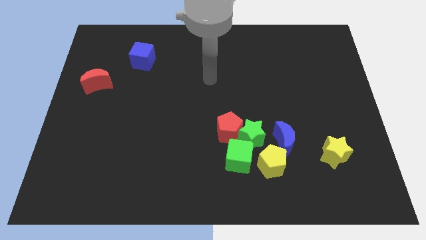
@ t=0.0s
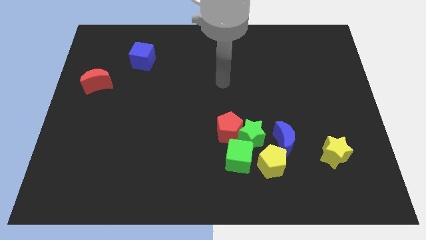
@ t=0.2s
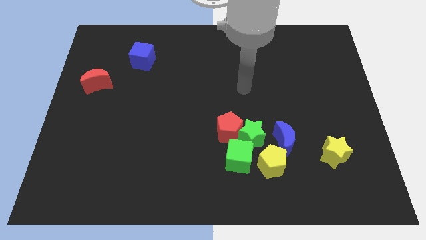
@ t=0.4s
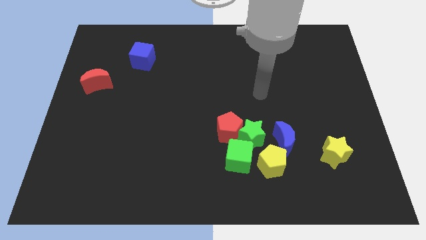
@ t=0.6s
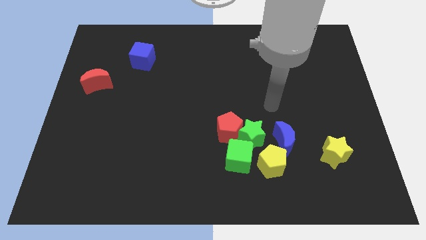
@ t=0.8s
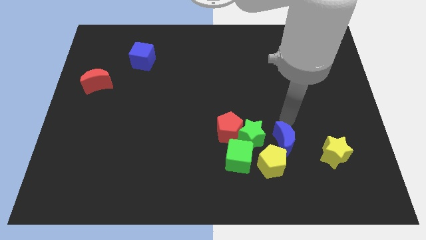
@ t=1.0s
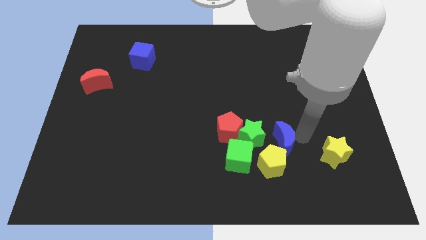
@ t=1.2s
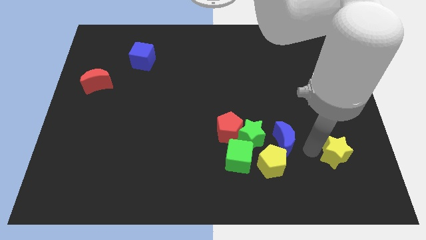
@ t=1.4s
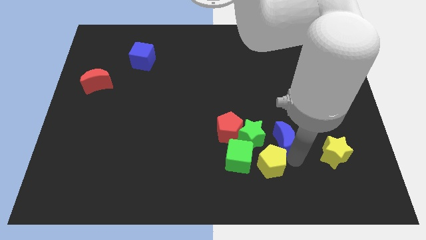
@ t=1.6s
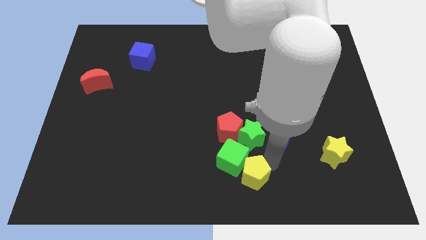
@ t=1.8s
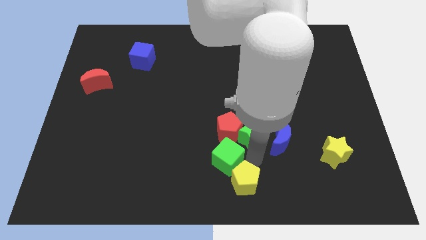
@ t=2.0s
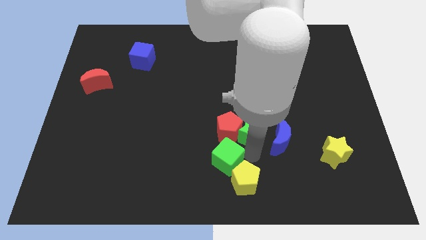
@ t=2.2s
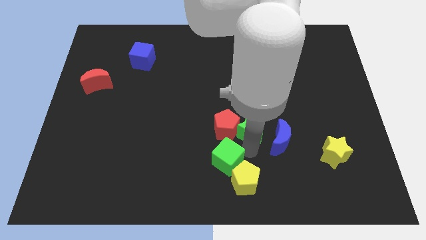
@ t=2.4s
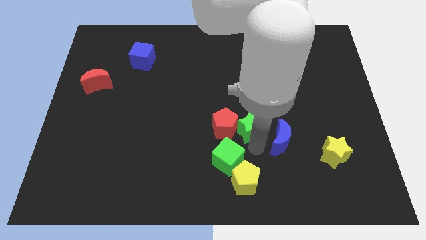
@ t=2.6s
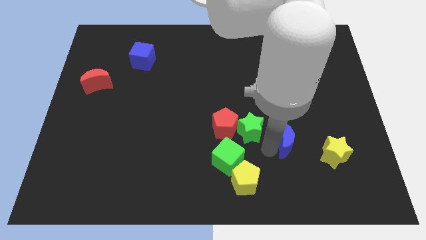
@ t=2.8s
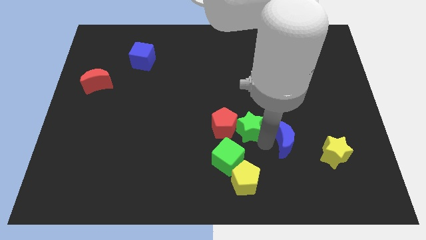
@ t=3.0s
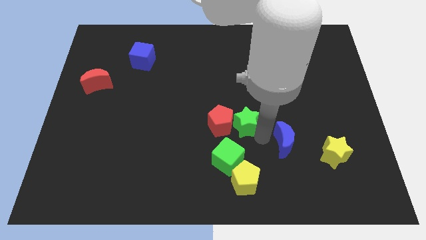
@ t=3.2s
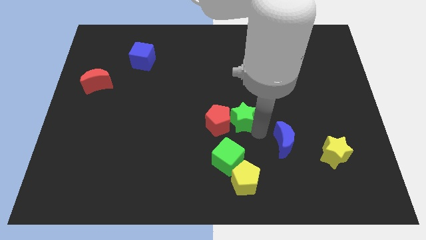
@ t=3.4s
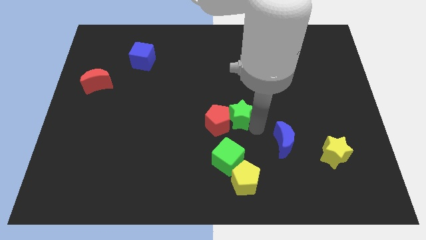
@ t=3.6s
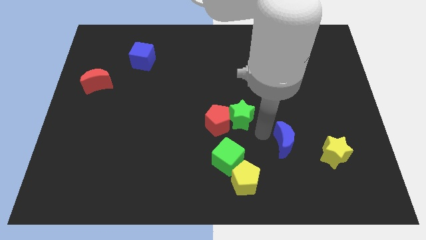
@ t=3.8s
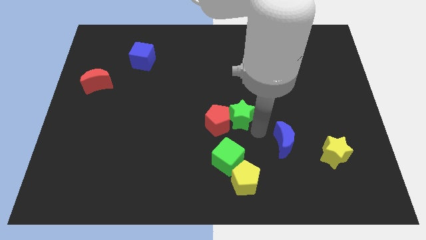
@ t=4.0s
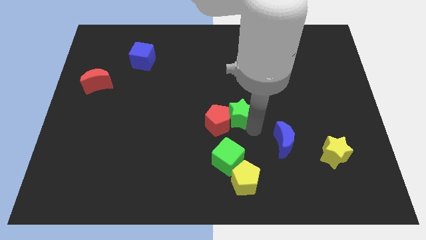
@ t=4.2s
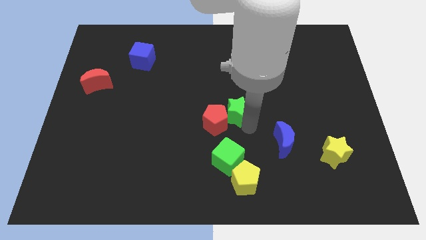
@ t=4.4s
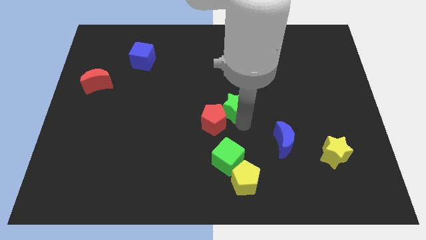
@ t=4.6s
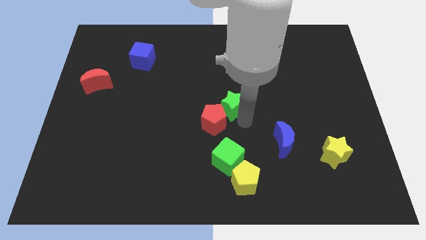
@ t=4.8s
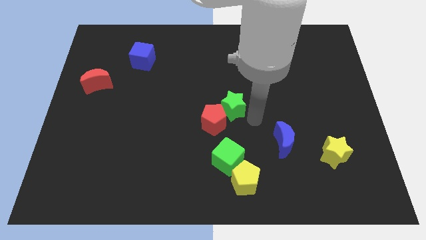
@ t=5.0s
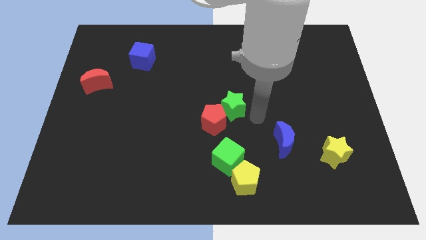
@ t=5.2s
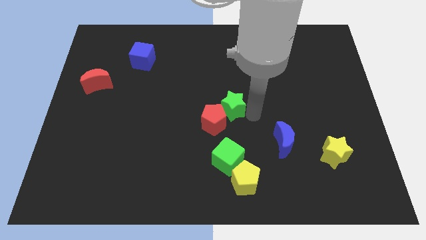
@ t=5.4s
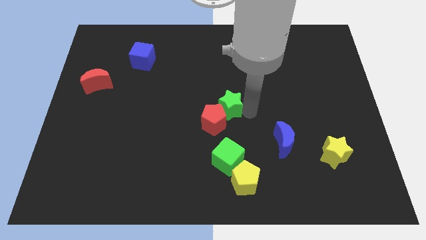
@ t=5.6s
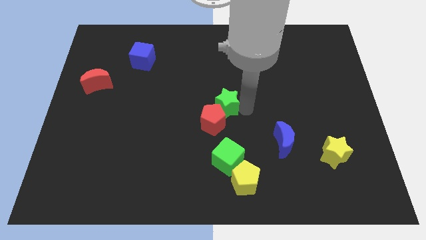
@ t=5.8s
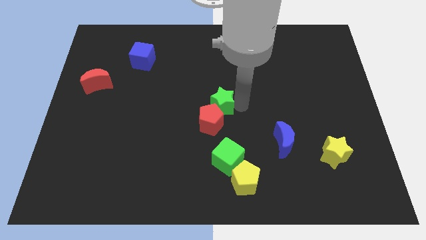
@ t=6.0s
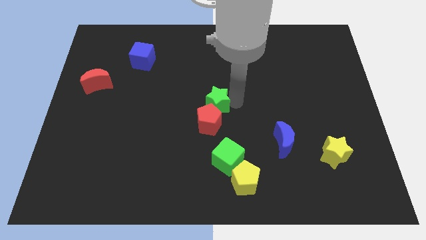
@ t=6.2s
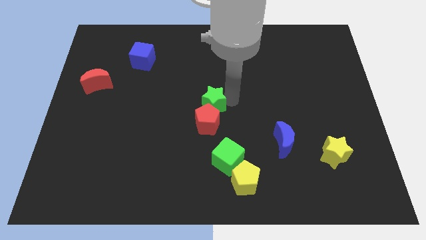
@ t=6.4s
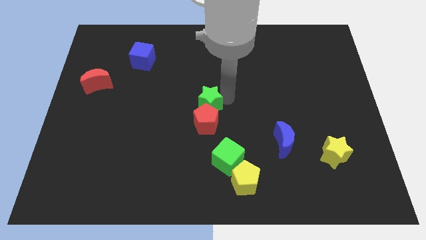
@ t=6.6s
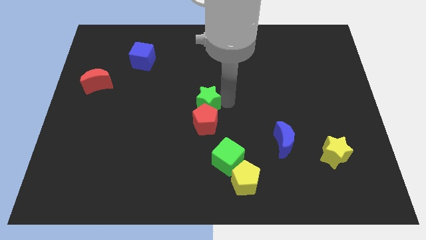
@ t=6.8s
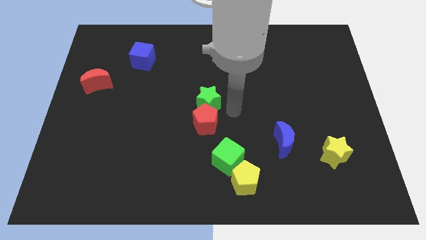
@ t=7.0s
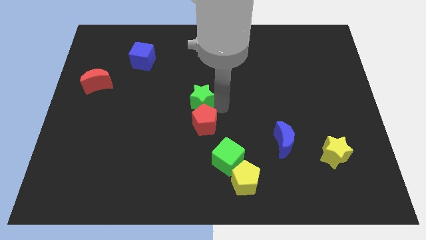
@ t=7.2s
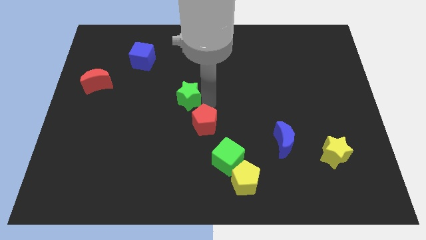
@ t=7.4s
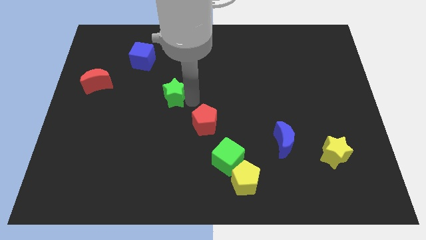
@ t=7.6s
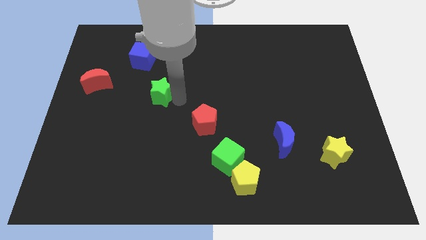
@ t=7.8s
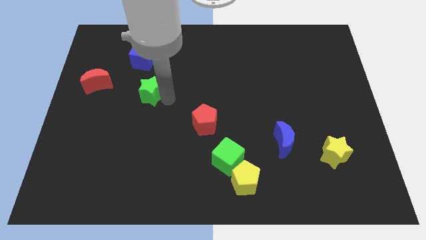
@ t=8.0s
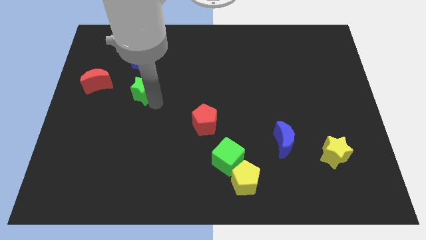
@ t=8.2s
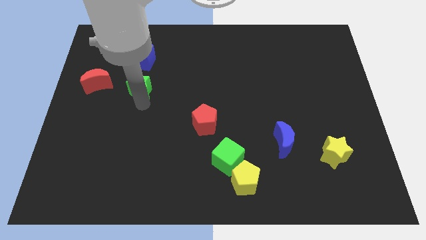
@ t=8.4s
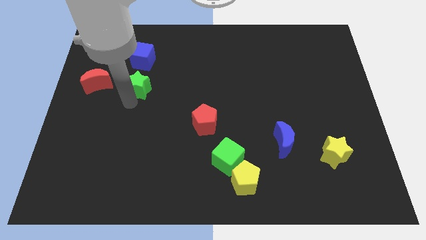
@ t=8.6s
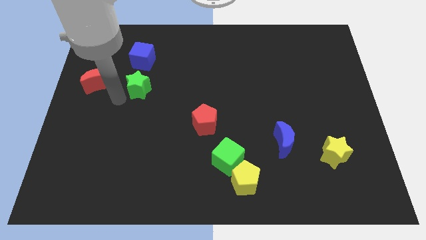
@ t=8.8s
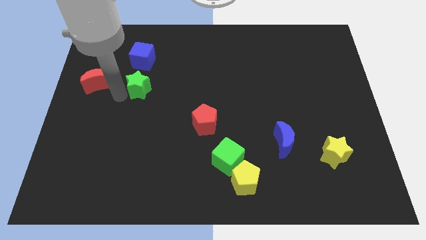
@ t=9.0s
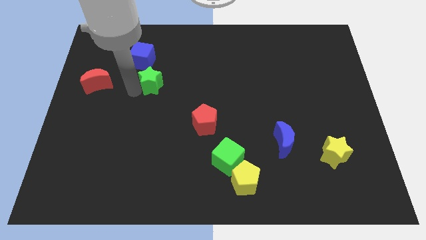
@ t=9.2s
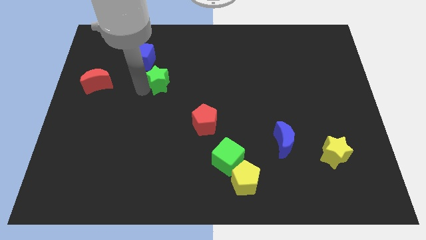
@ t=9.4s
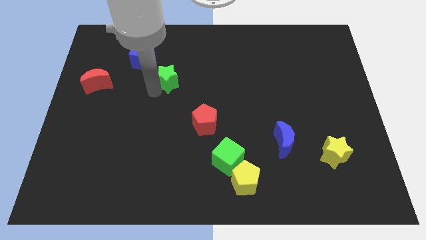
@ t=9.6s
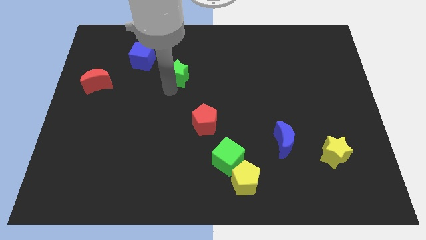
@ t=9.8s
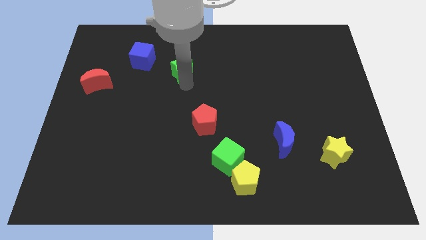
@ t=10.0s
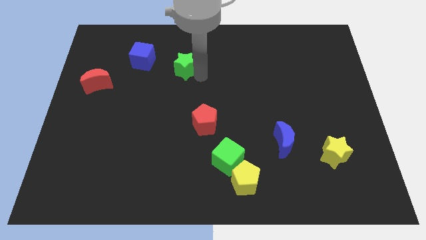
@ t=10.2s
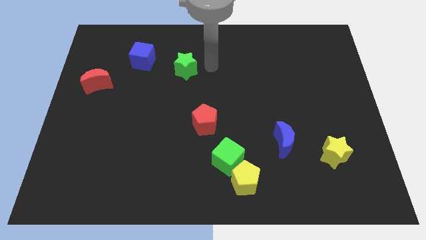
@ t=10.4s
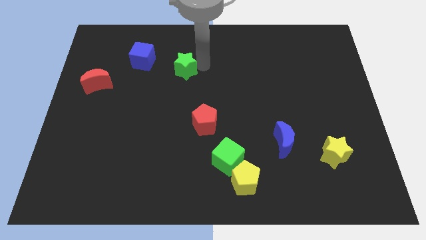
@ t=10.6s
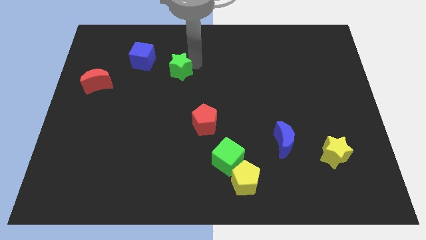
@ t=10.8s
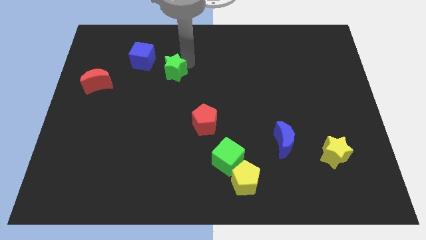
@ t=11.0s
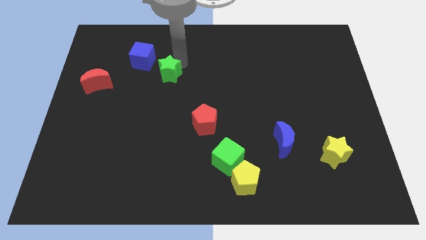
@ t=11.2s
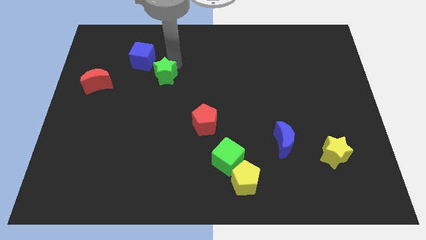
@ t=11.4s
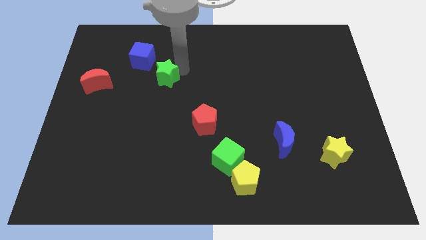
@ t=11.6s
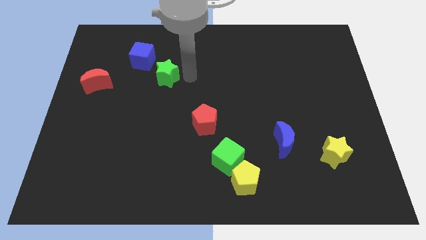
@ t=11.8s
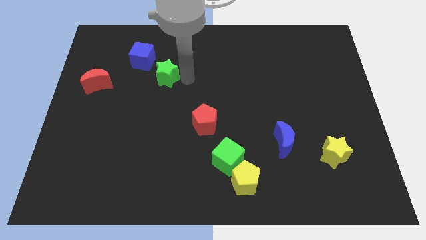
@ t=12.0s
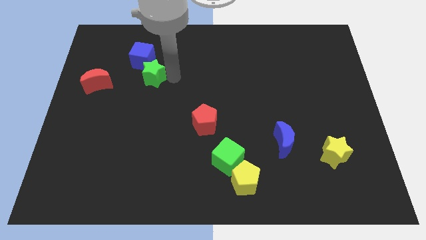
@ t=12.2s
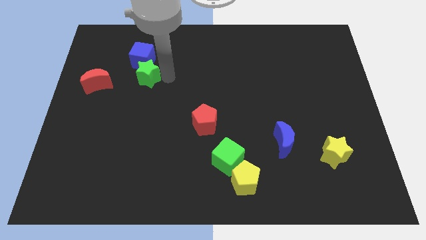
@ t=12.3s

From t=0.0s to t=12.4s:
put the green star towards the blue cube

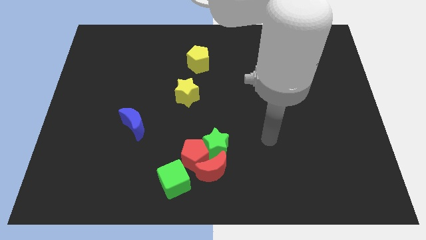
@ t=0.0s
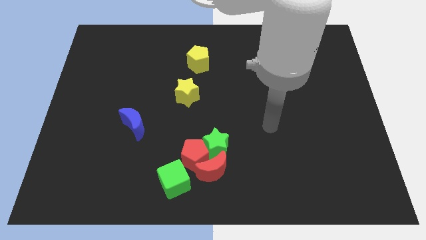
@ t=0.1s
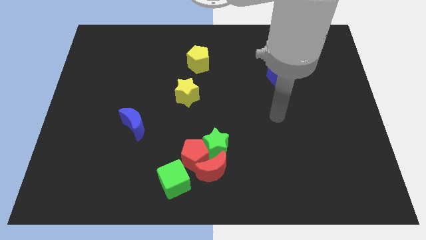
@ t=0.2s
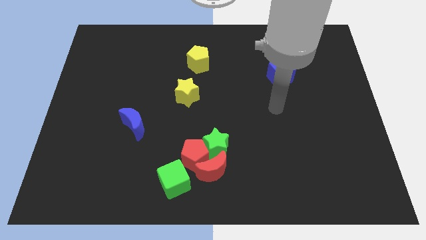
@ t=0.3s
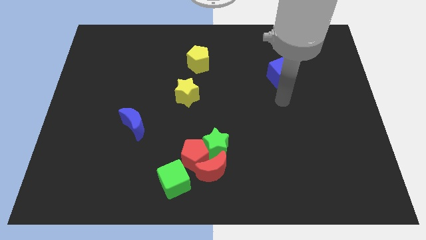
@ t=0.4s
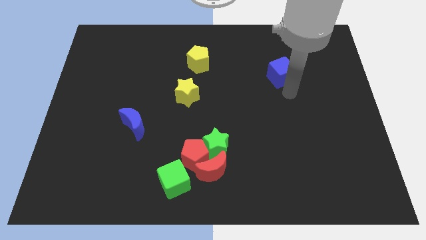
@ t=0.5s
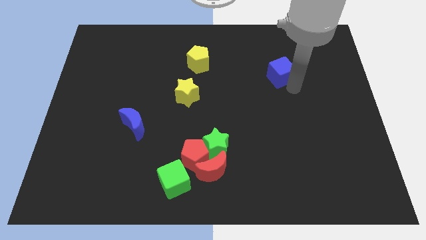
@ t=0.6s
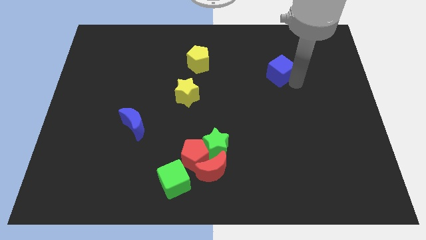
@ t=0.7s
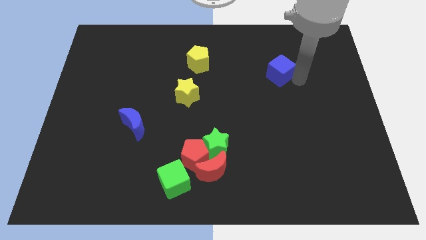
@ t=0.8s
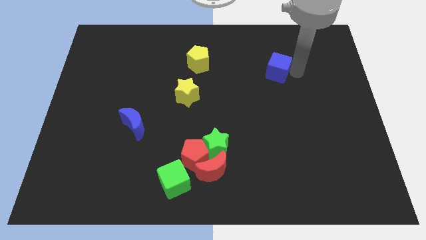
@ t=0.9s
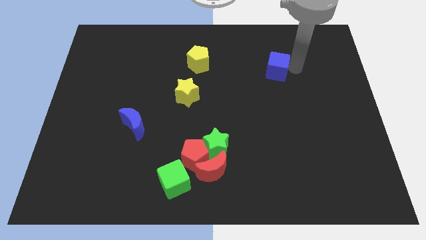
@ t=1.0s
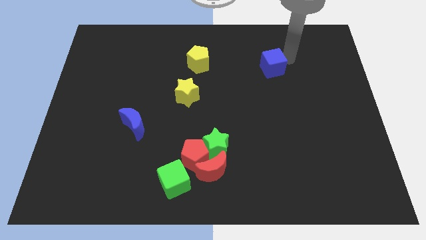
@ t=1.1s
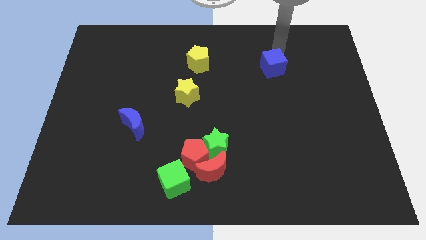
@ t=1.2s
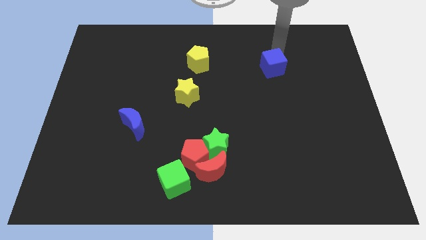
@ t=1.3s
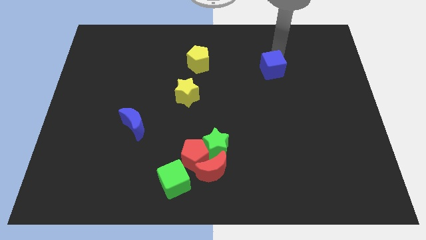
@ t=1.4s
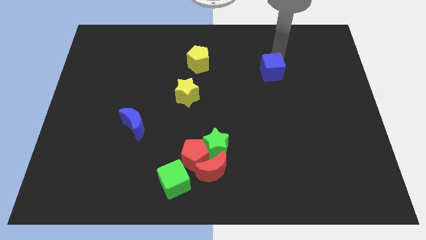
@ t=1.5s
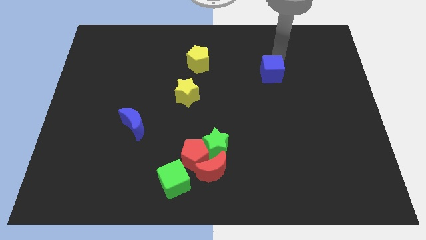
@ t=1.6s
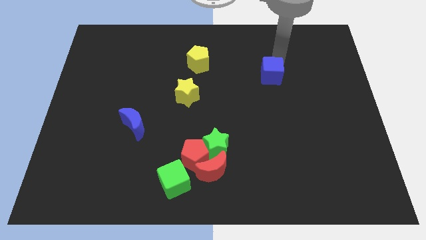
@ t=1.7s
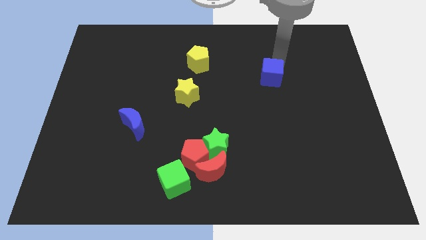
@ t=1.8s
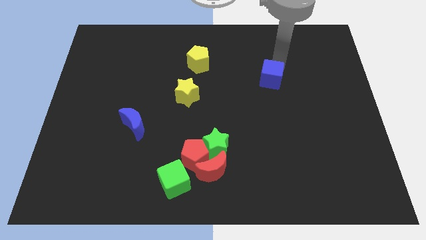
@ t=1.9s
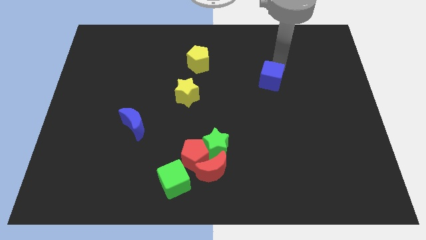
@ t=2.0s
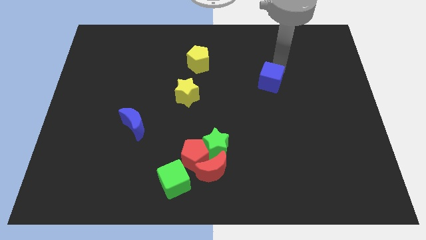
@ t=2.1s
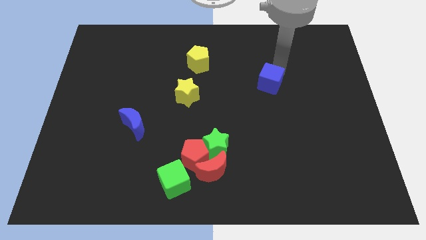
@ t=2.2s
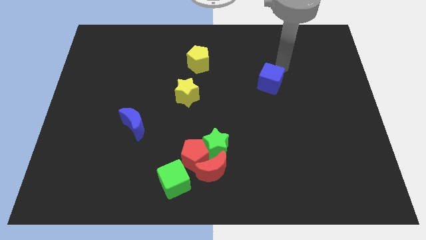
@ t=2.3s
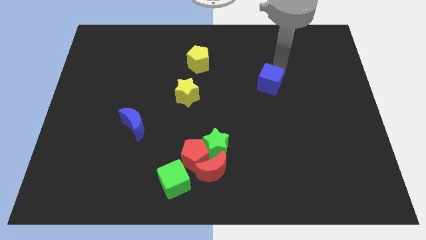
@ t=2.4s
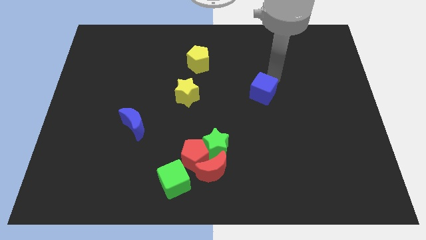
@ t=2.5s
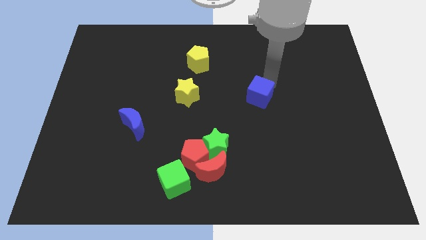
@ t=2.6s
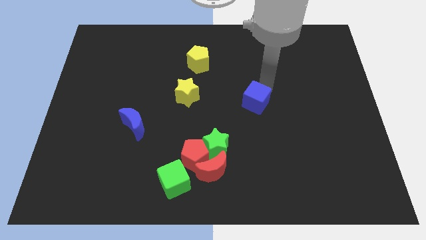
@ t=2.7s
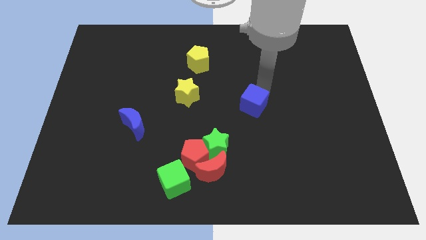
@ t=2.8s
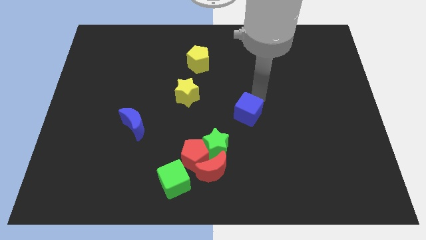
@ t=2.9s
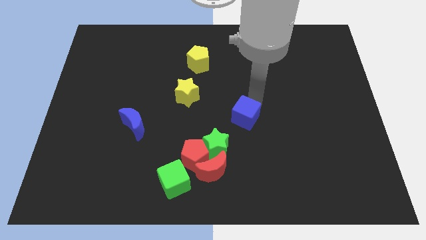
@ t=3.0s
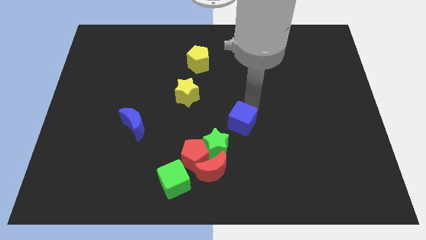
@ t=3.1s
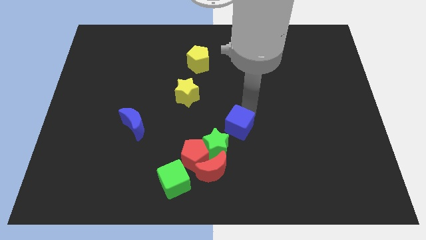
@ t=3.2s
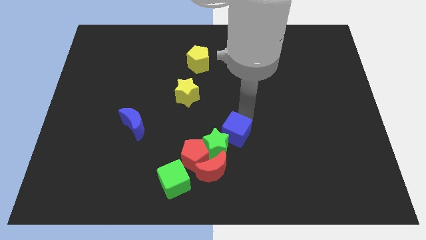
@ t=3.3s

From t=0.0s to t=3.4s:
push the blue cube close to the green star
